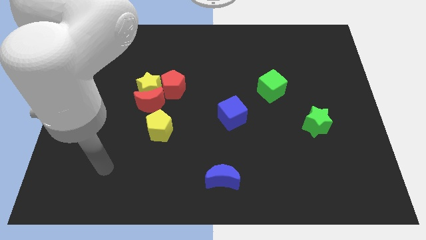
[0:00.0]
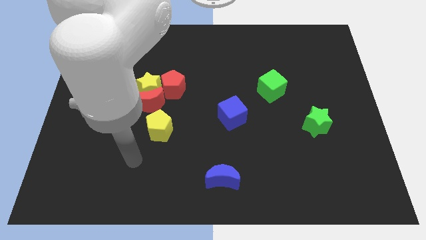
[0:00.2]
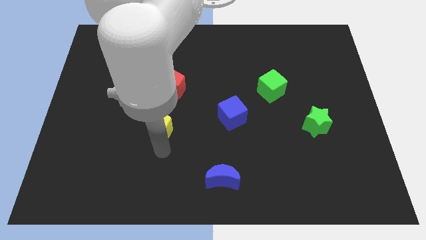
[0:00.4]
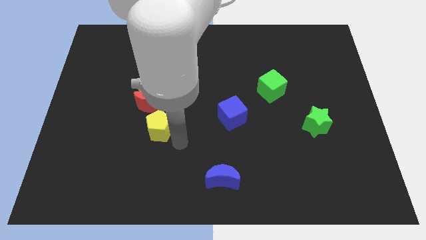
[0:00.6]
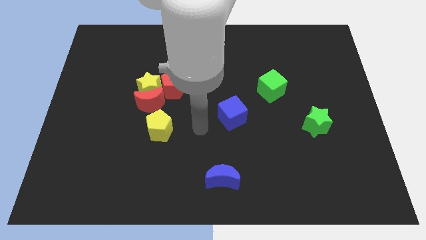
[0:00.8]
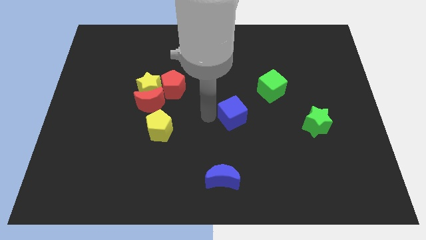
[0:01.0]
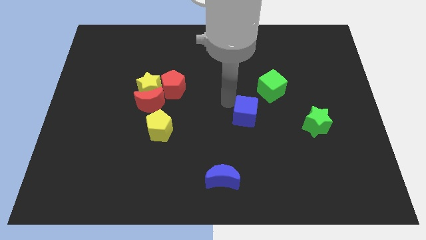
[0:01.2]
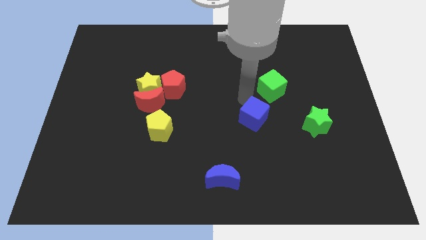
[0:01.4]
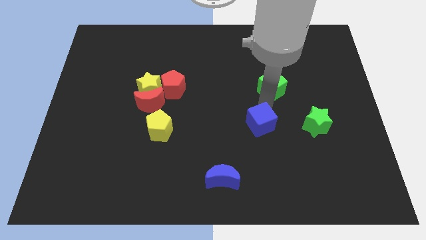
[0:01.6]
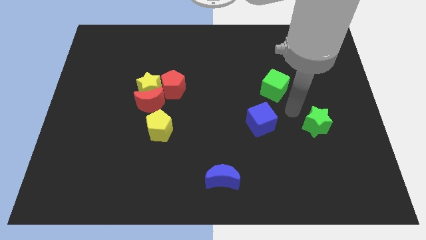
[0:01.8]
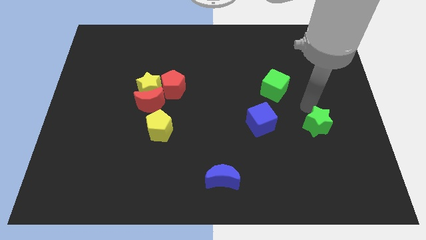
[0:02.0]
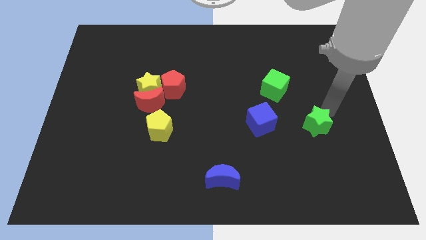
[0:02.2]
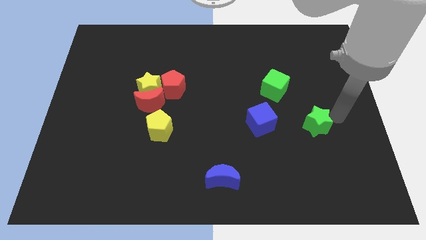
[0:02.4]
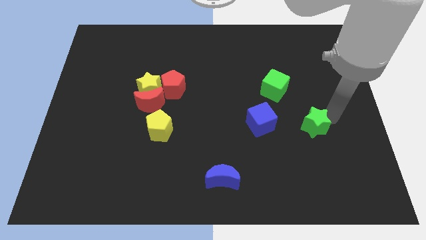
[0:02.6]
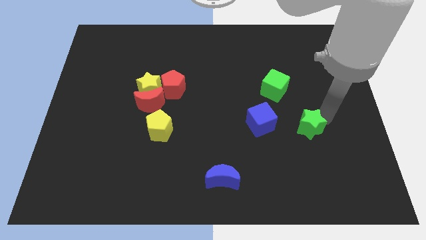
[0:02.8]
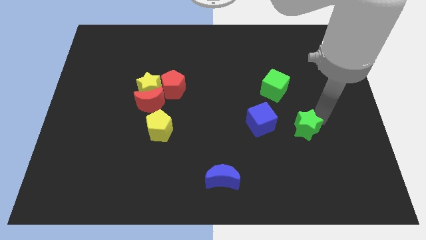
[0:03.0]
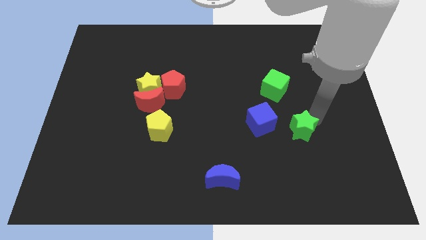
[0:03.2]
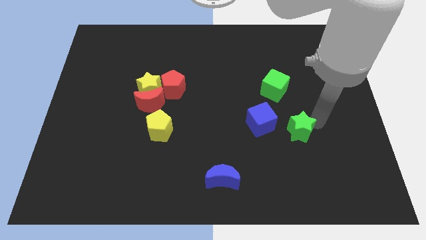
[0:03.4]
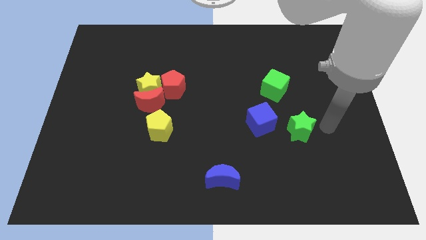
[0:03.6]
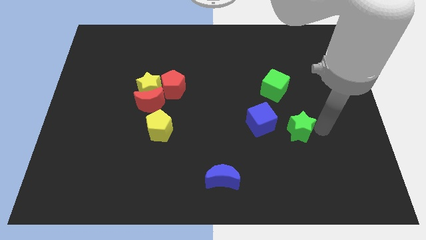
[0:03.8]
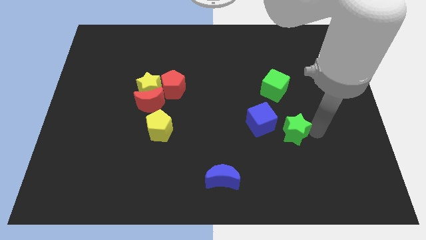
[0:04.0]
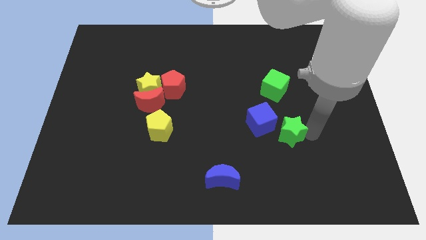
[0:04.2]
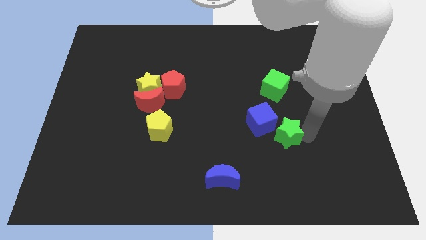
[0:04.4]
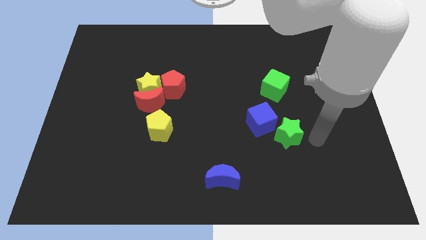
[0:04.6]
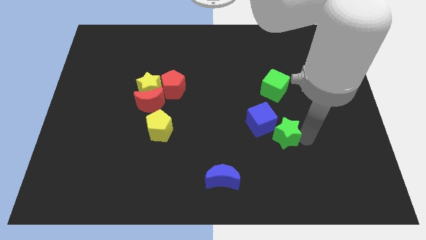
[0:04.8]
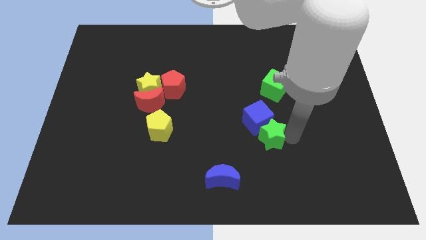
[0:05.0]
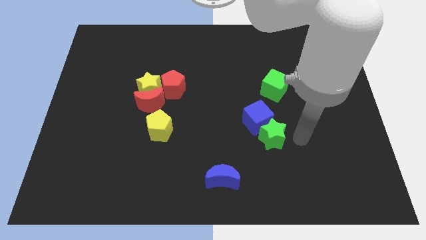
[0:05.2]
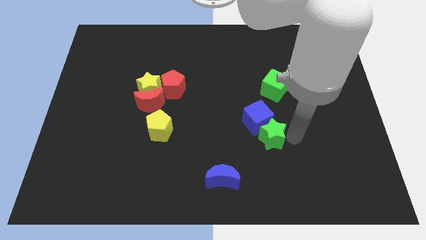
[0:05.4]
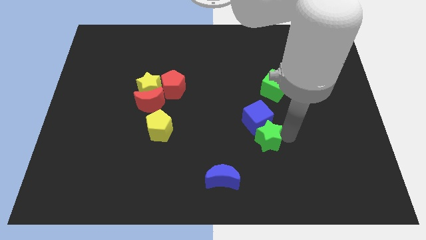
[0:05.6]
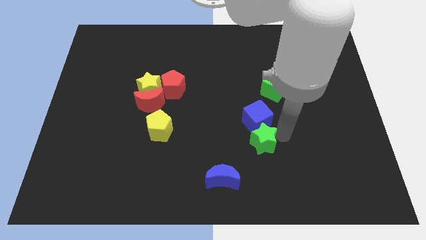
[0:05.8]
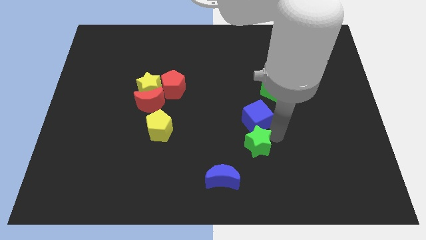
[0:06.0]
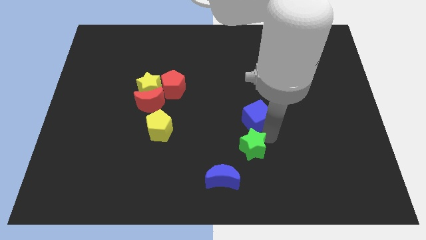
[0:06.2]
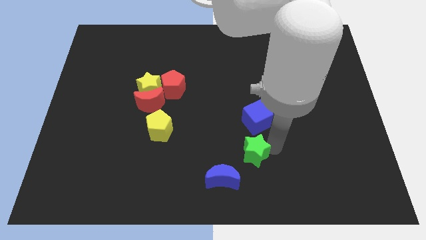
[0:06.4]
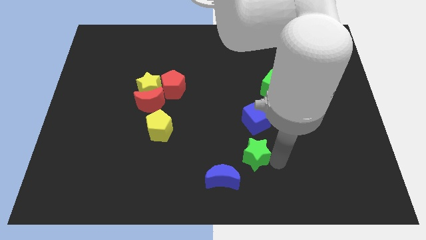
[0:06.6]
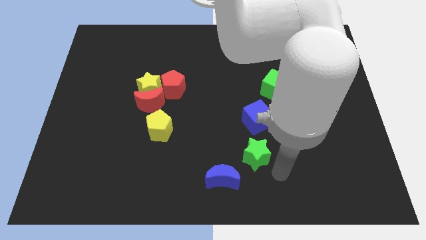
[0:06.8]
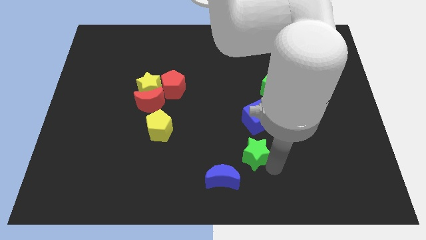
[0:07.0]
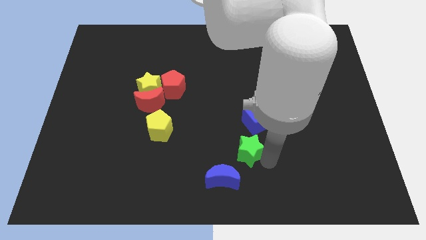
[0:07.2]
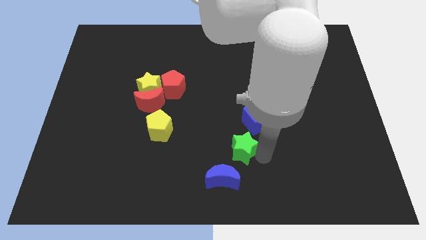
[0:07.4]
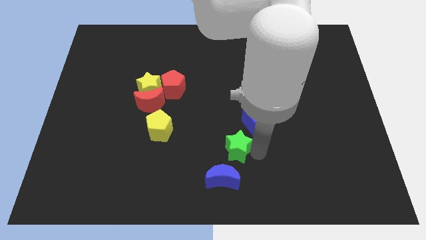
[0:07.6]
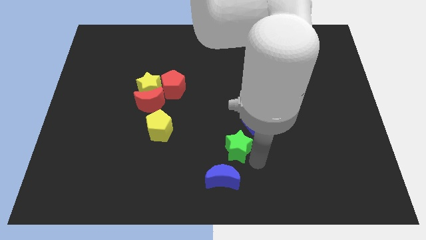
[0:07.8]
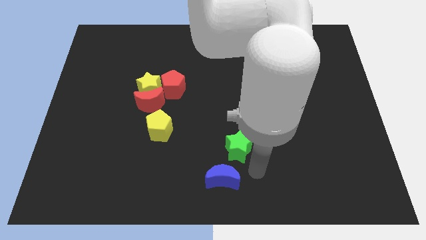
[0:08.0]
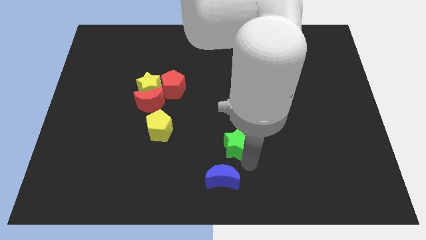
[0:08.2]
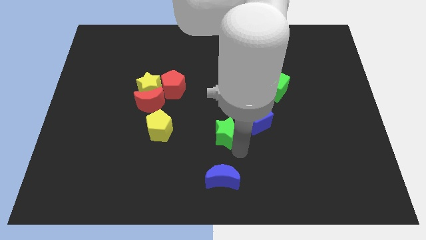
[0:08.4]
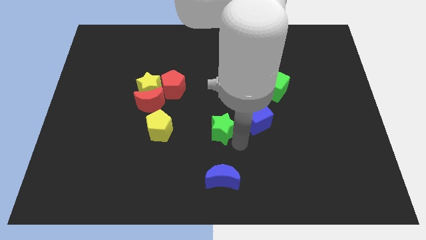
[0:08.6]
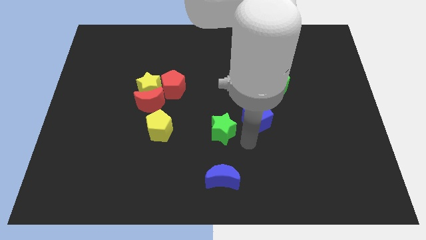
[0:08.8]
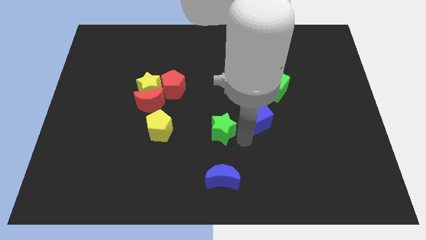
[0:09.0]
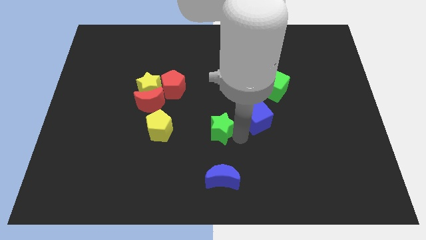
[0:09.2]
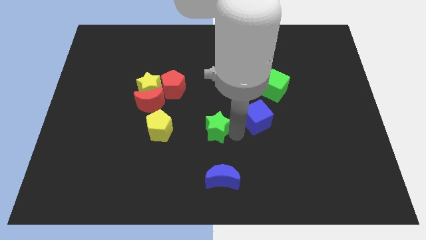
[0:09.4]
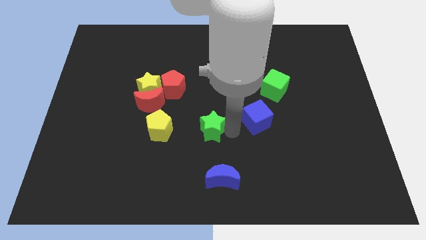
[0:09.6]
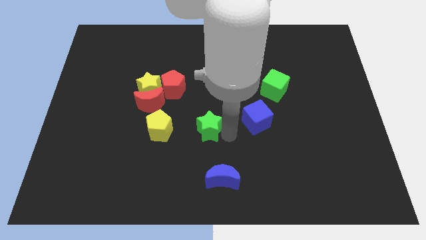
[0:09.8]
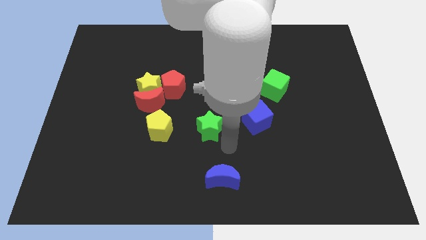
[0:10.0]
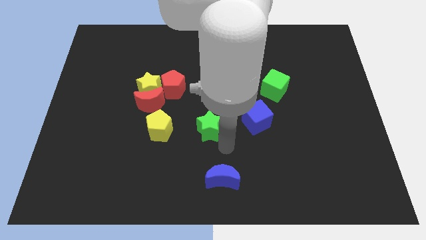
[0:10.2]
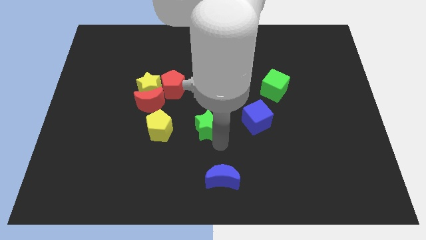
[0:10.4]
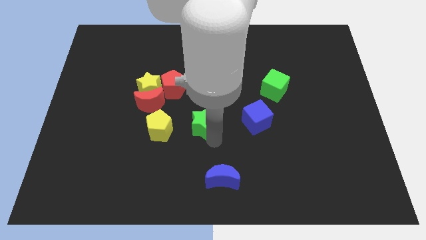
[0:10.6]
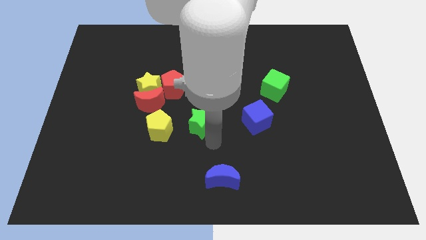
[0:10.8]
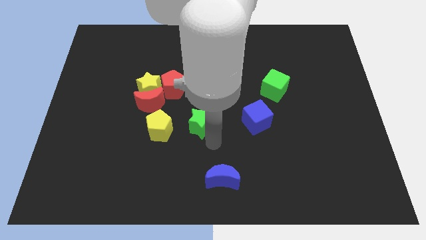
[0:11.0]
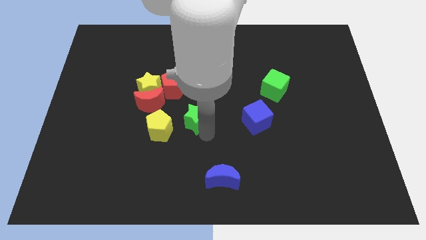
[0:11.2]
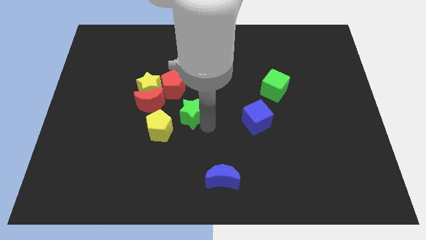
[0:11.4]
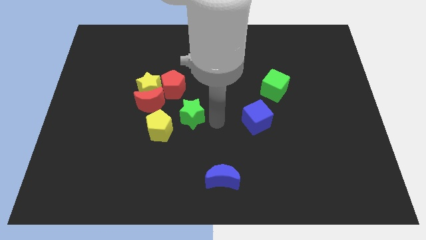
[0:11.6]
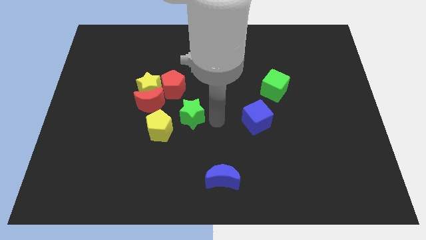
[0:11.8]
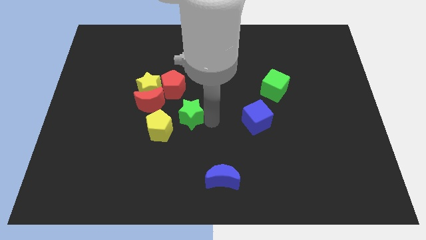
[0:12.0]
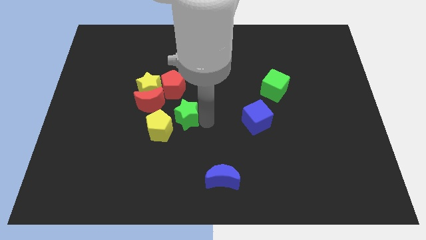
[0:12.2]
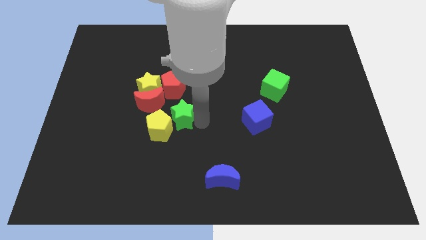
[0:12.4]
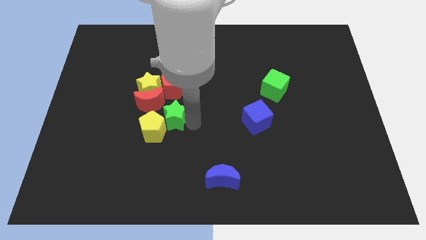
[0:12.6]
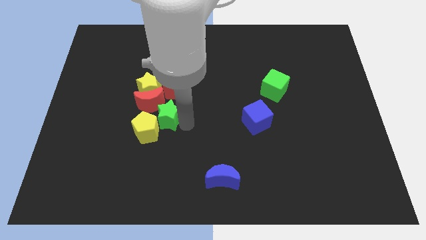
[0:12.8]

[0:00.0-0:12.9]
put the green star next to the red moon

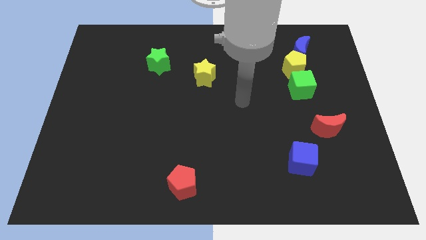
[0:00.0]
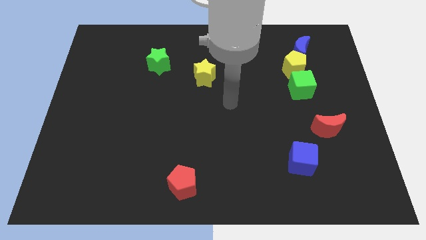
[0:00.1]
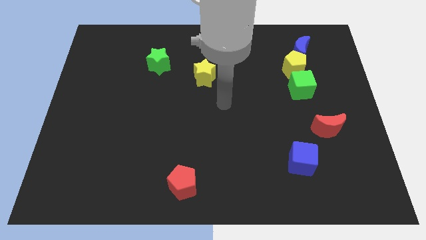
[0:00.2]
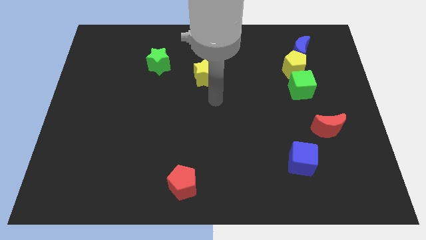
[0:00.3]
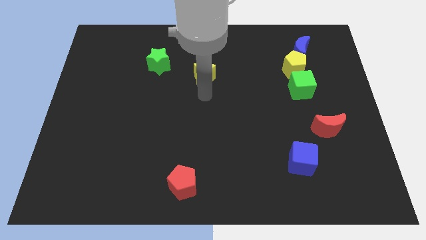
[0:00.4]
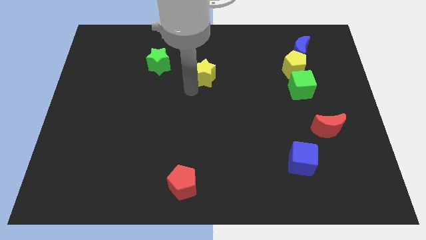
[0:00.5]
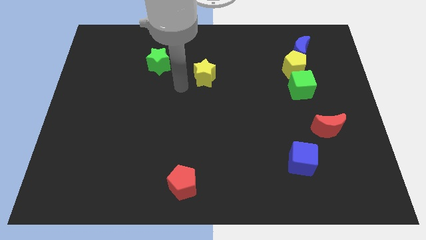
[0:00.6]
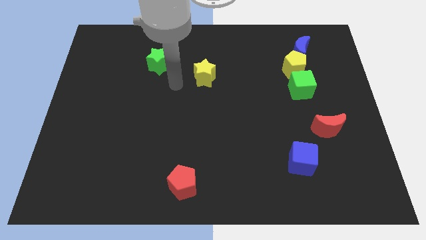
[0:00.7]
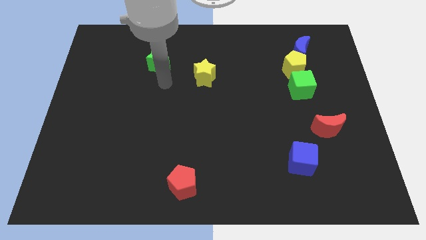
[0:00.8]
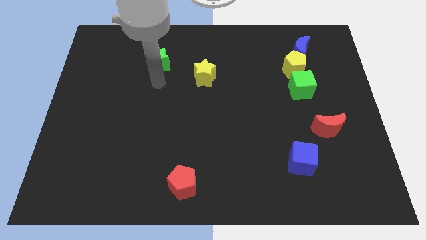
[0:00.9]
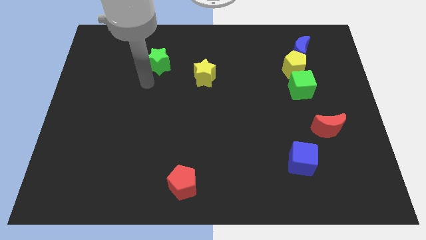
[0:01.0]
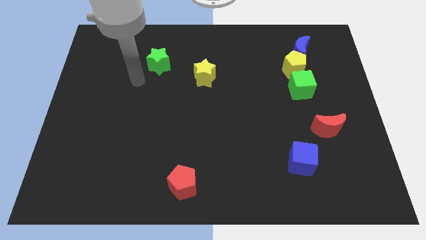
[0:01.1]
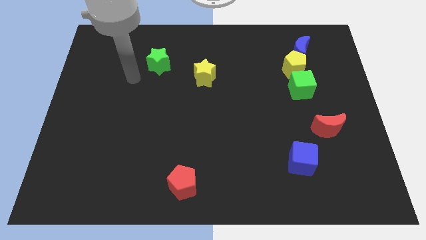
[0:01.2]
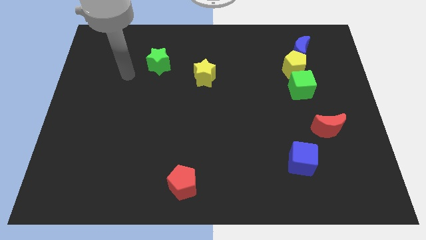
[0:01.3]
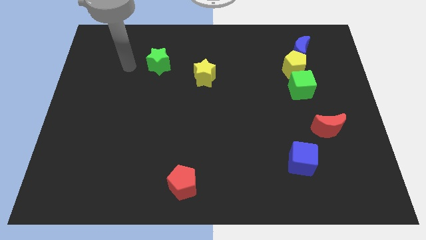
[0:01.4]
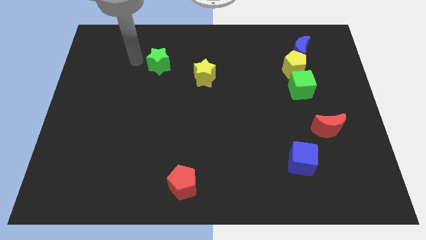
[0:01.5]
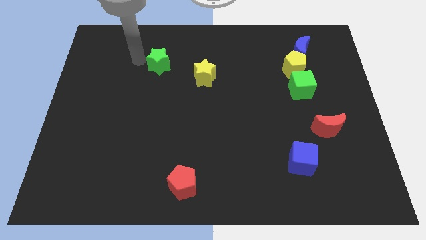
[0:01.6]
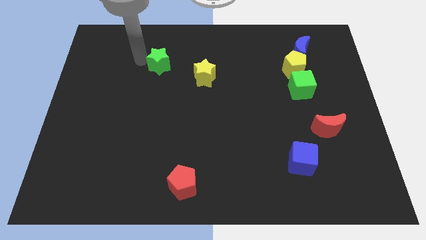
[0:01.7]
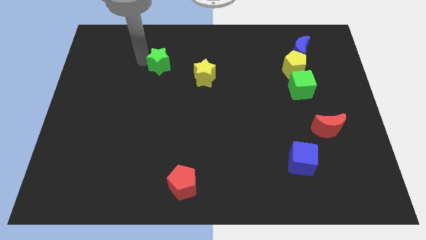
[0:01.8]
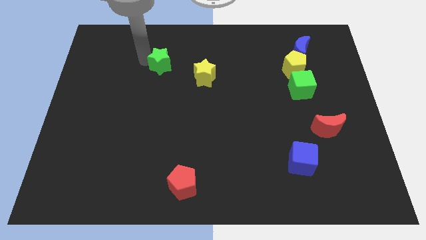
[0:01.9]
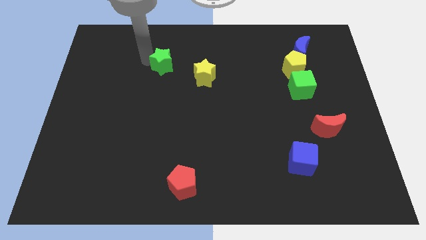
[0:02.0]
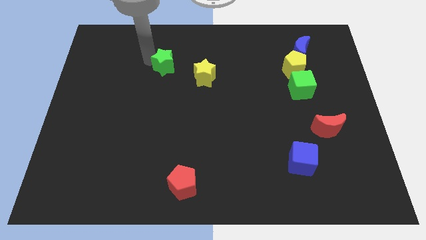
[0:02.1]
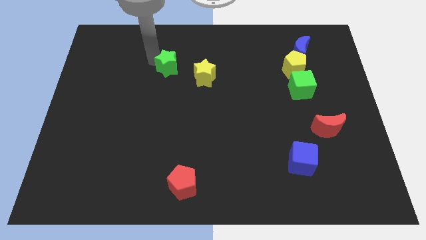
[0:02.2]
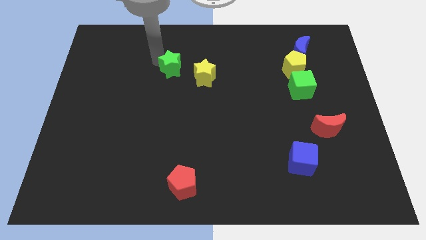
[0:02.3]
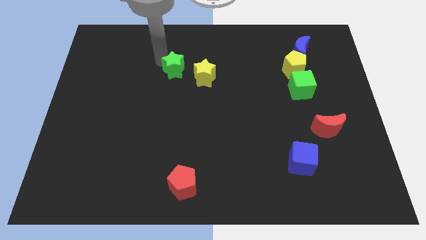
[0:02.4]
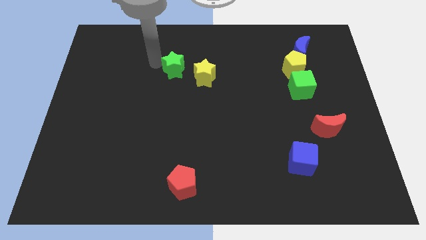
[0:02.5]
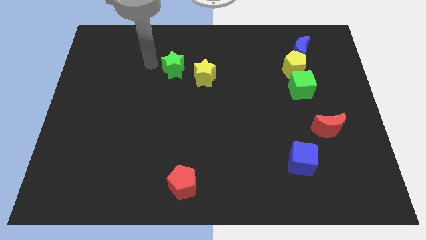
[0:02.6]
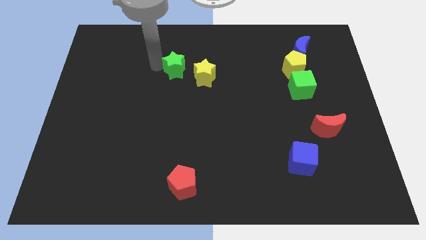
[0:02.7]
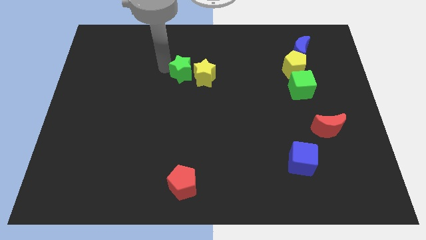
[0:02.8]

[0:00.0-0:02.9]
push the green star towards the yellow star
